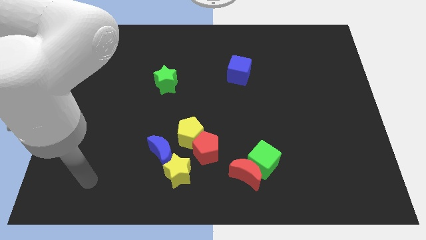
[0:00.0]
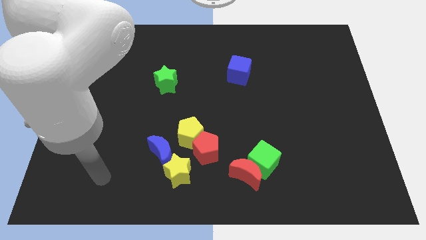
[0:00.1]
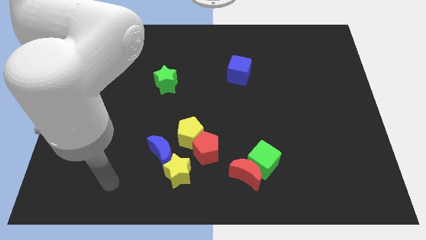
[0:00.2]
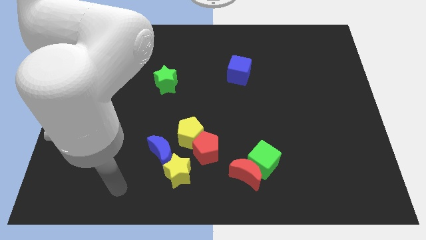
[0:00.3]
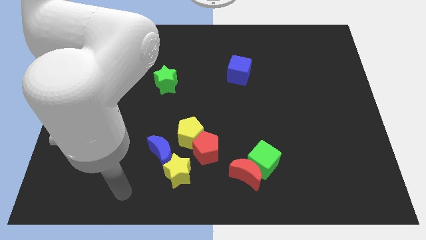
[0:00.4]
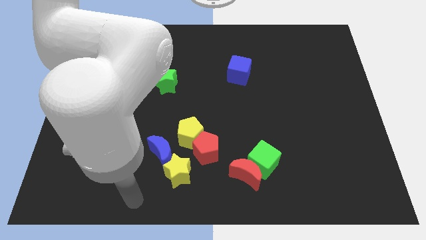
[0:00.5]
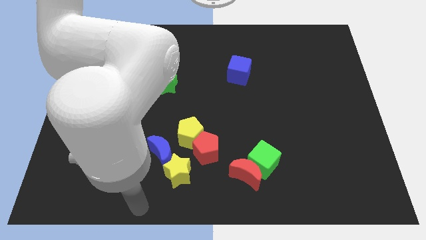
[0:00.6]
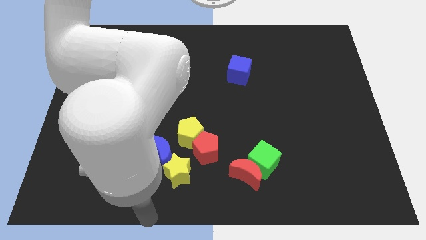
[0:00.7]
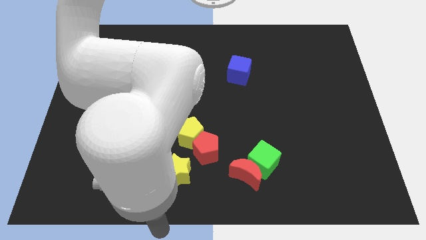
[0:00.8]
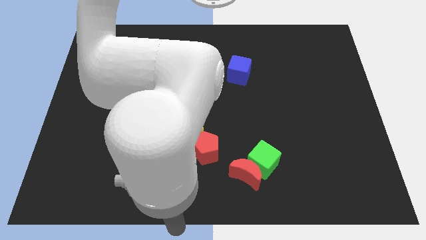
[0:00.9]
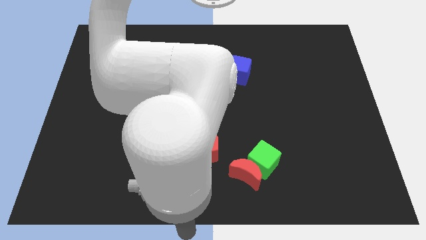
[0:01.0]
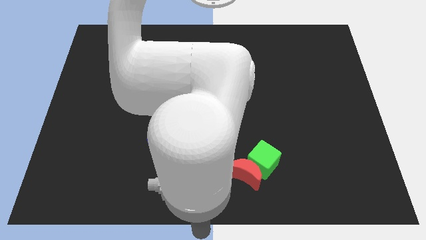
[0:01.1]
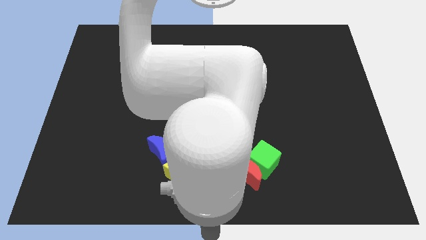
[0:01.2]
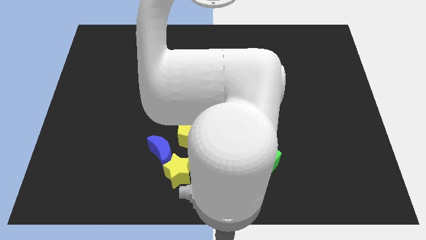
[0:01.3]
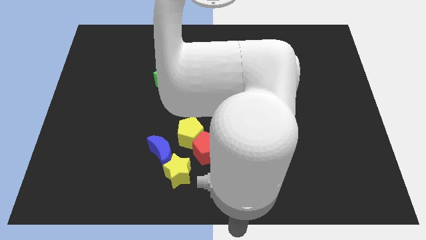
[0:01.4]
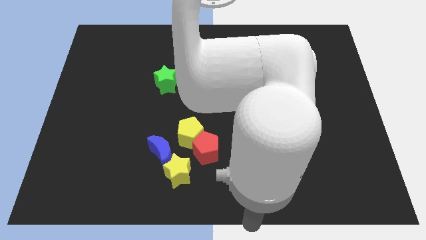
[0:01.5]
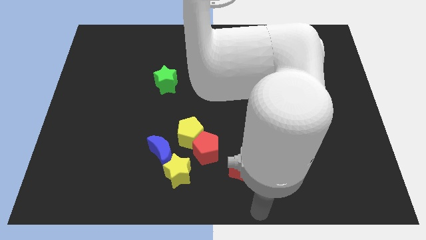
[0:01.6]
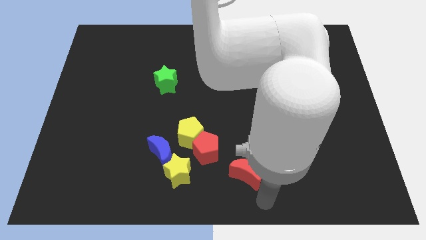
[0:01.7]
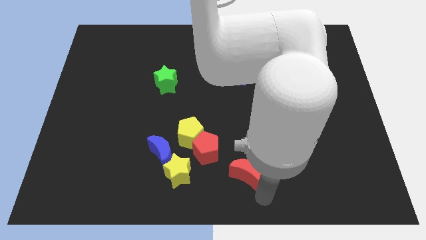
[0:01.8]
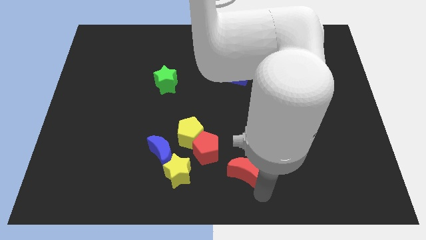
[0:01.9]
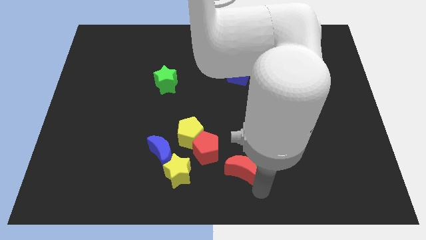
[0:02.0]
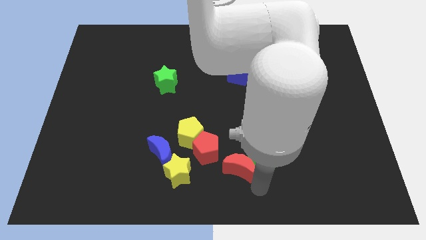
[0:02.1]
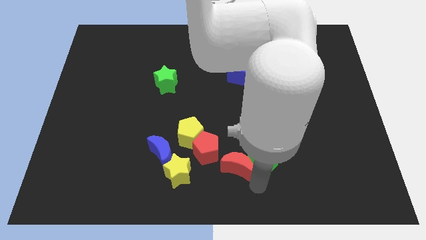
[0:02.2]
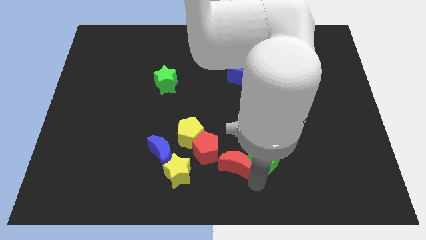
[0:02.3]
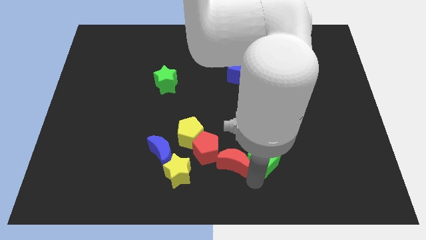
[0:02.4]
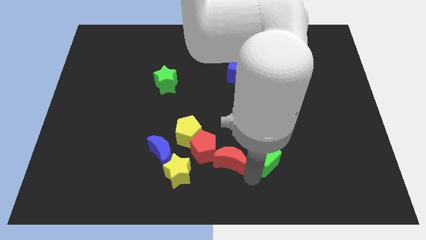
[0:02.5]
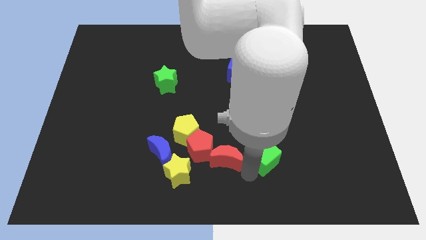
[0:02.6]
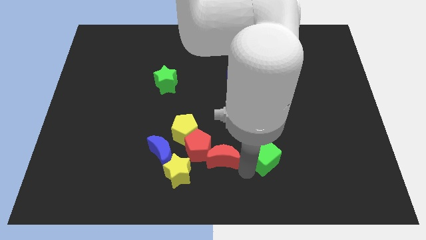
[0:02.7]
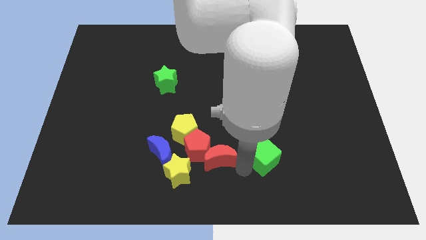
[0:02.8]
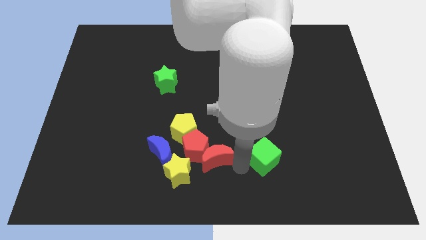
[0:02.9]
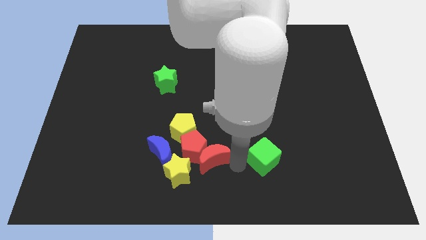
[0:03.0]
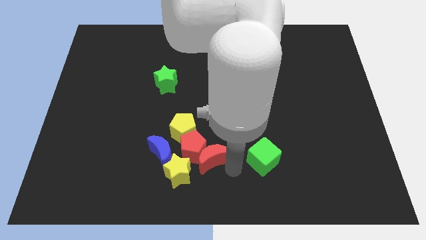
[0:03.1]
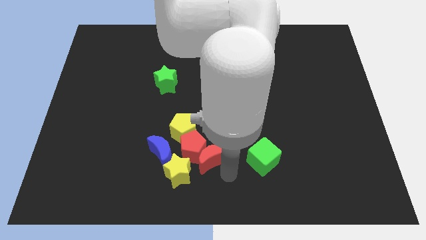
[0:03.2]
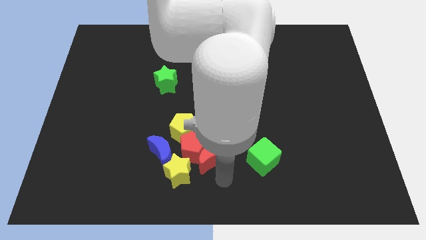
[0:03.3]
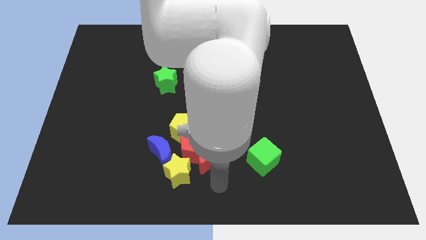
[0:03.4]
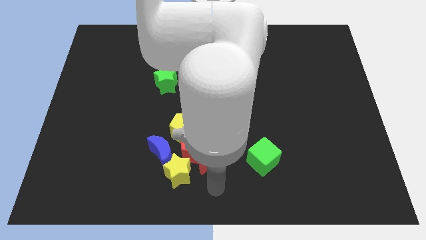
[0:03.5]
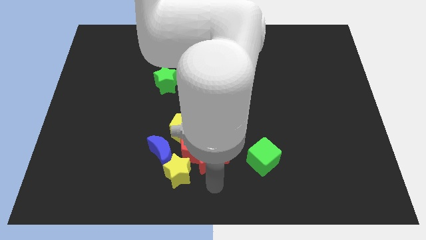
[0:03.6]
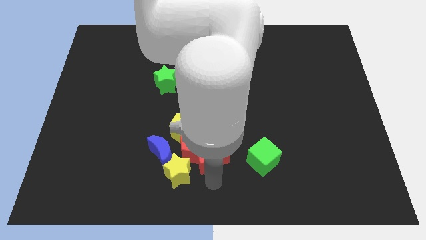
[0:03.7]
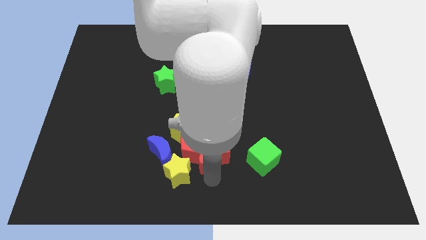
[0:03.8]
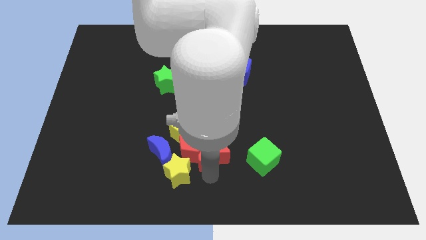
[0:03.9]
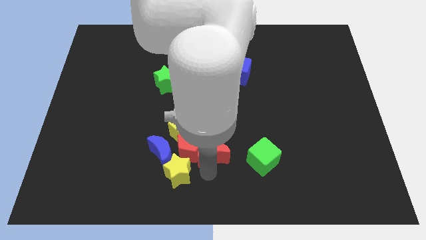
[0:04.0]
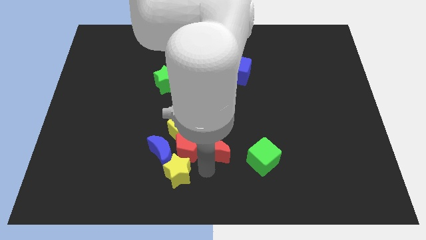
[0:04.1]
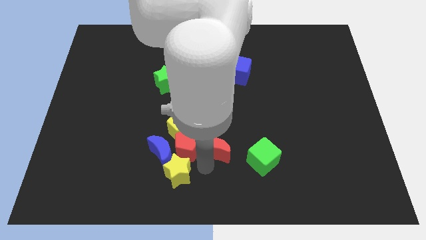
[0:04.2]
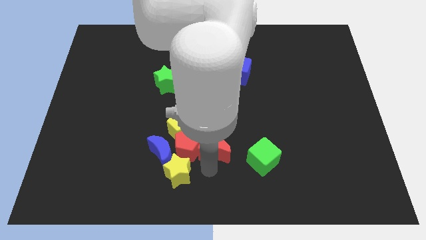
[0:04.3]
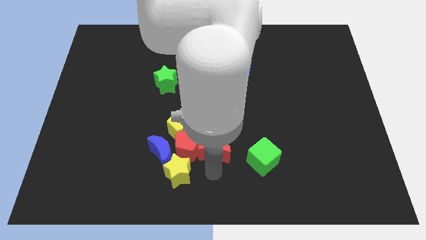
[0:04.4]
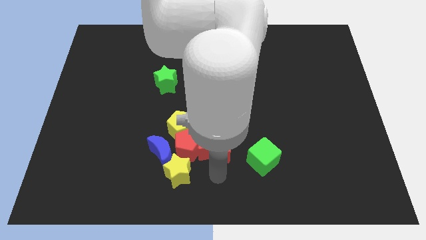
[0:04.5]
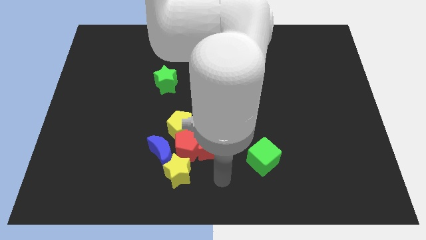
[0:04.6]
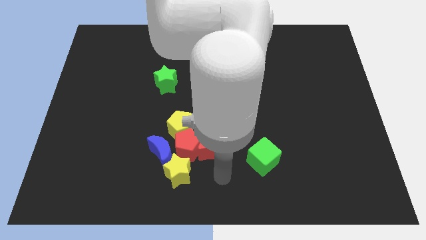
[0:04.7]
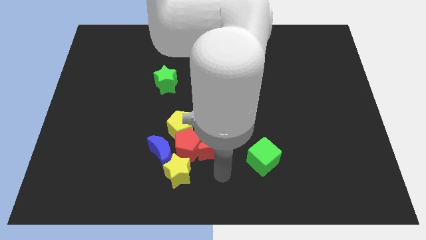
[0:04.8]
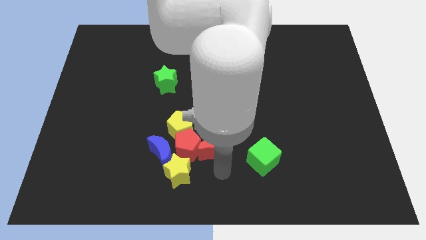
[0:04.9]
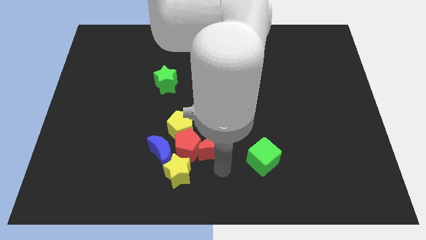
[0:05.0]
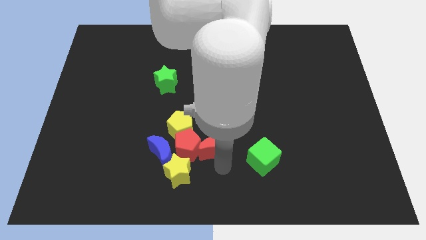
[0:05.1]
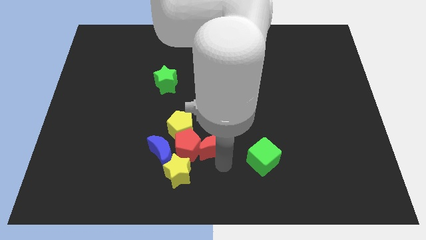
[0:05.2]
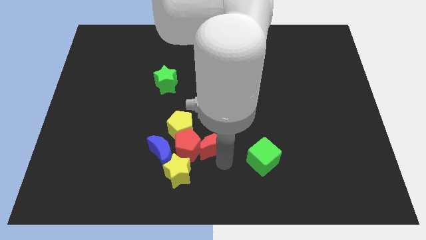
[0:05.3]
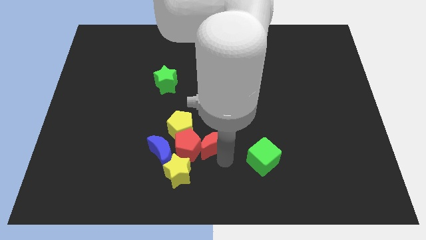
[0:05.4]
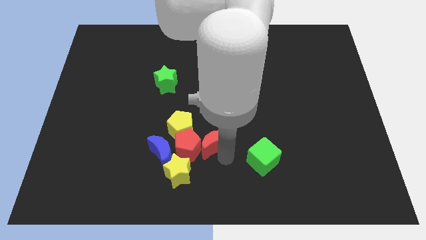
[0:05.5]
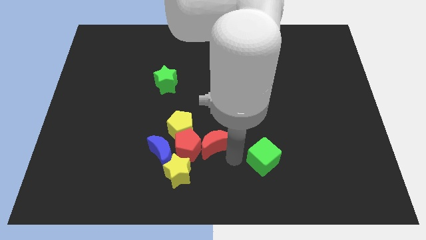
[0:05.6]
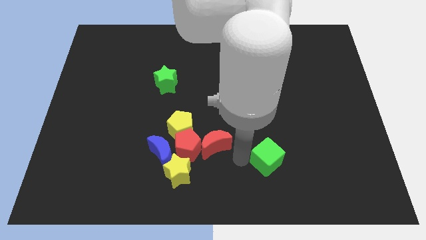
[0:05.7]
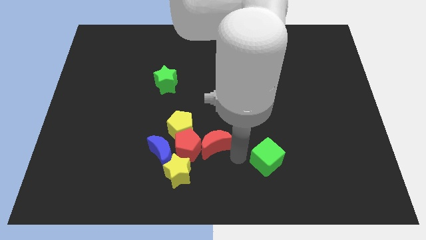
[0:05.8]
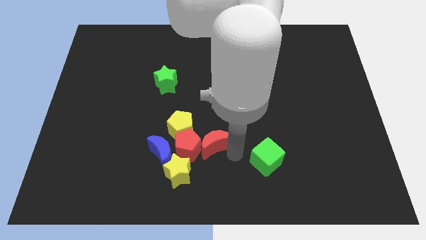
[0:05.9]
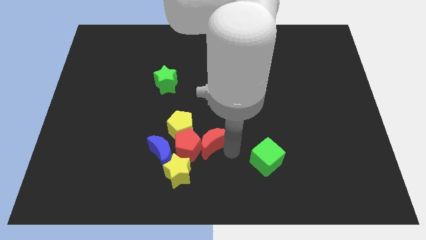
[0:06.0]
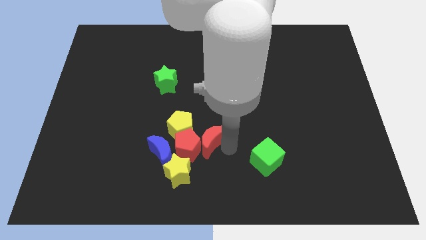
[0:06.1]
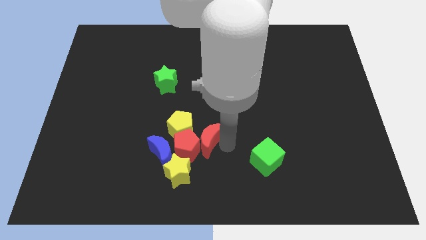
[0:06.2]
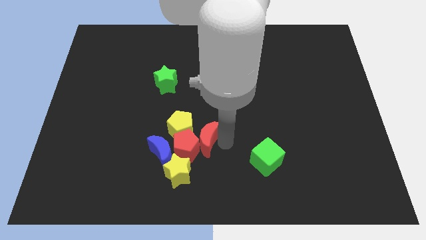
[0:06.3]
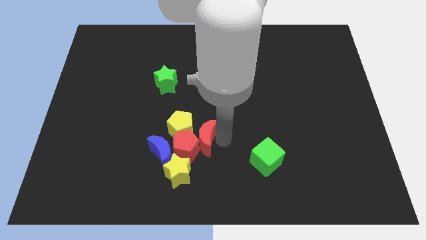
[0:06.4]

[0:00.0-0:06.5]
push the red moon next to the yellow pentagon
